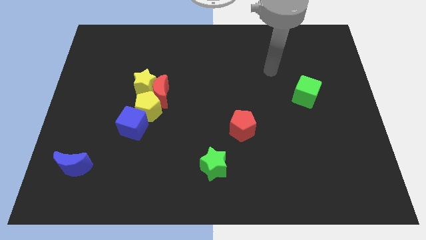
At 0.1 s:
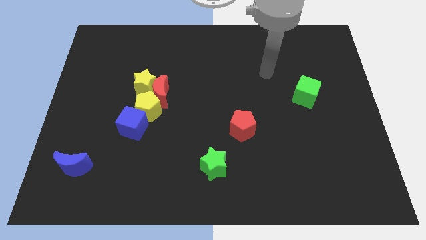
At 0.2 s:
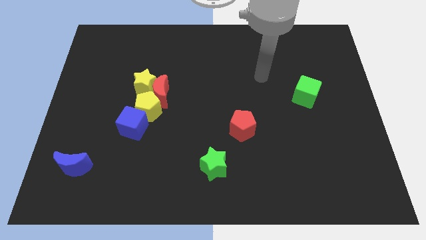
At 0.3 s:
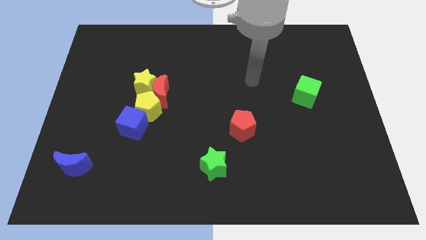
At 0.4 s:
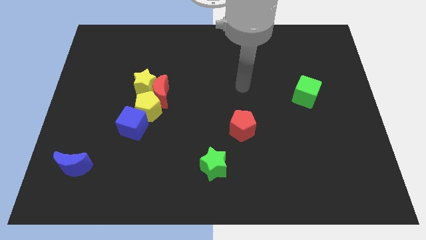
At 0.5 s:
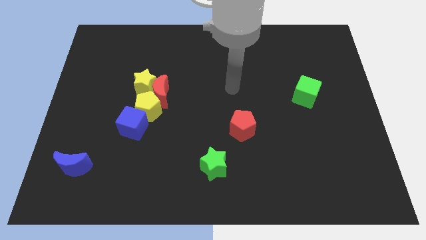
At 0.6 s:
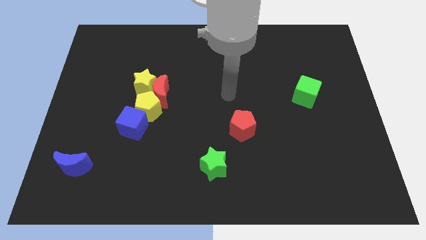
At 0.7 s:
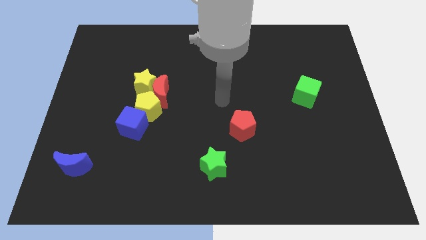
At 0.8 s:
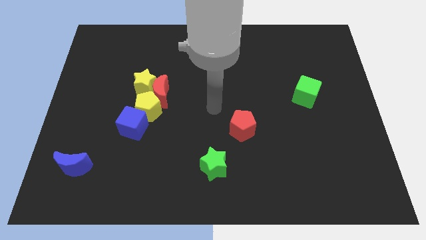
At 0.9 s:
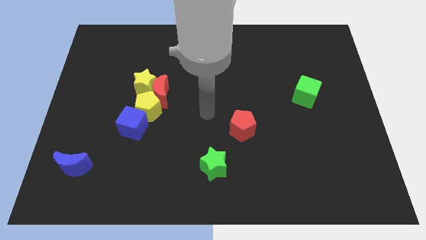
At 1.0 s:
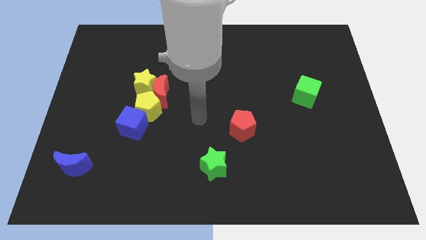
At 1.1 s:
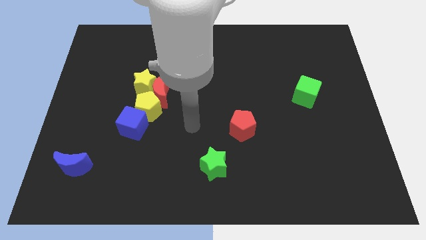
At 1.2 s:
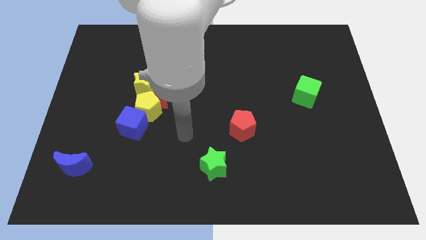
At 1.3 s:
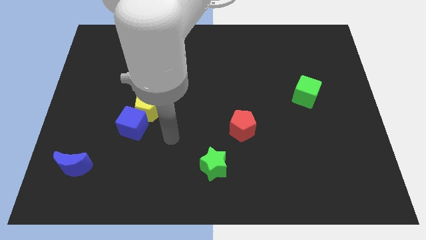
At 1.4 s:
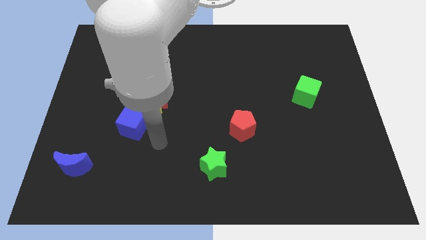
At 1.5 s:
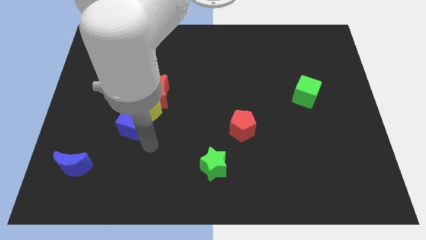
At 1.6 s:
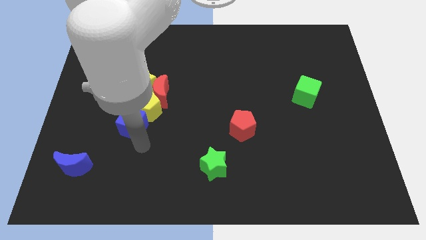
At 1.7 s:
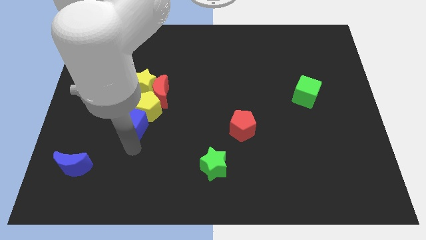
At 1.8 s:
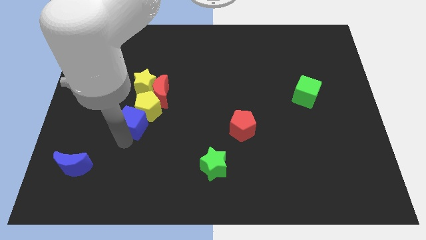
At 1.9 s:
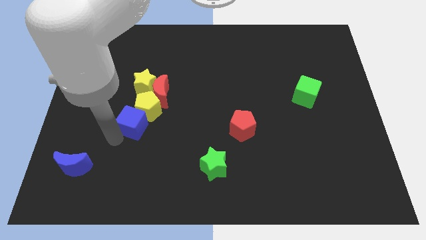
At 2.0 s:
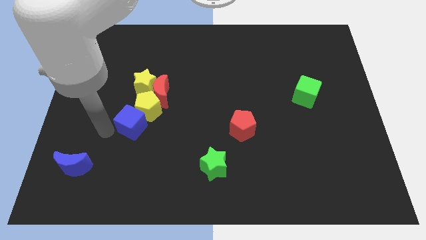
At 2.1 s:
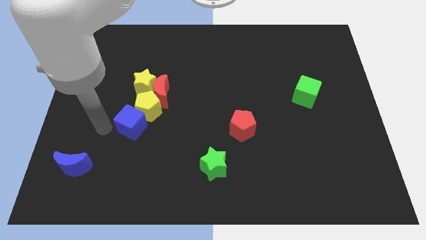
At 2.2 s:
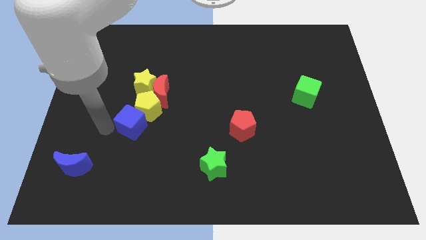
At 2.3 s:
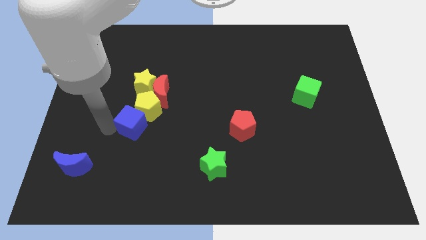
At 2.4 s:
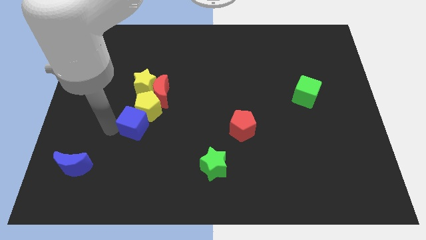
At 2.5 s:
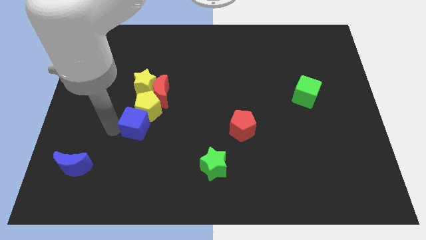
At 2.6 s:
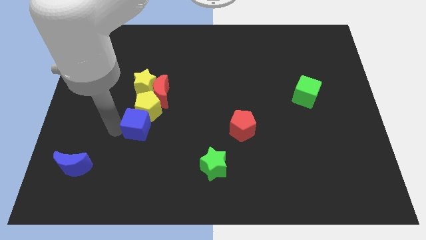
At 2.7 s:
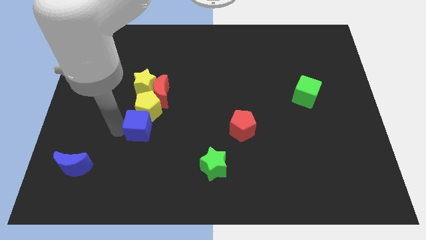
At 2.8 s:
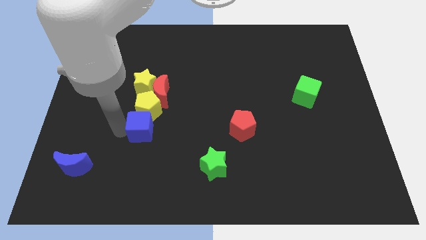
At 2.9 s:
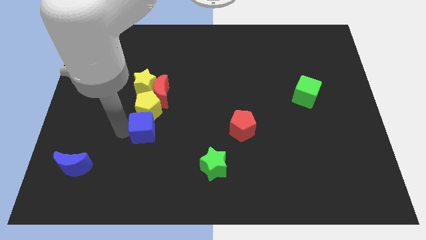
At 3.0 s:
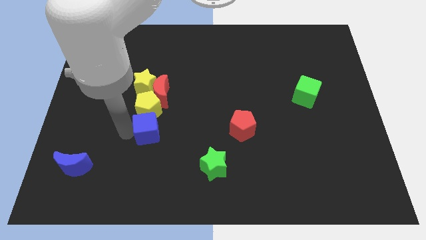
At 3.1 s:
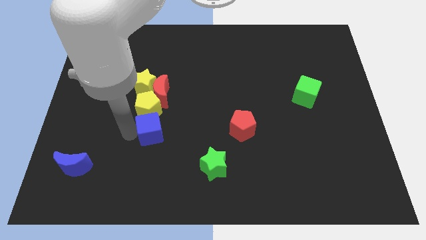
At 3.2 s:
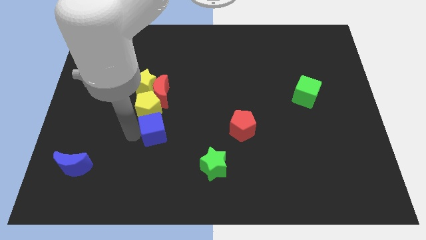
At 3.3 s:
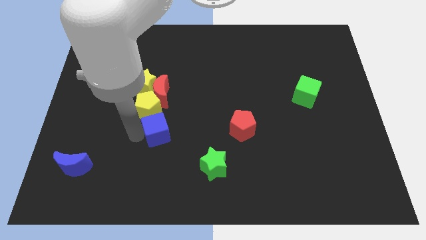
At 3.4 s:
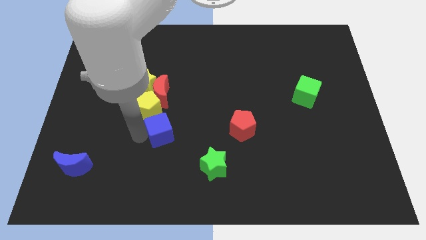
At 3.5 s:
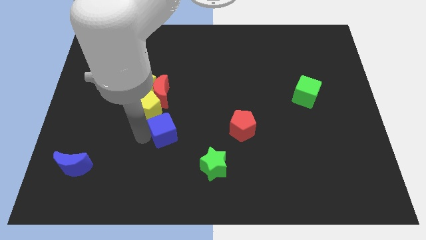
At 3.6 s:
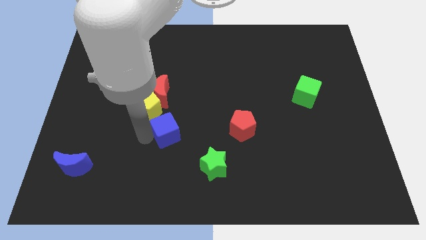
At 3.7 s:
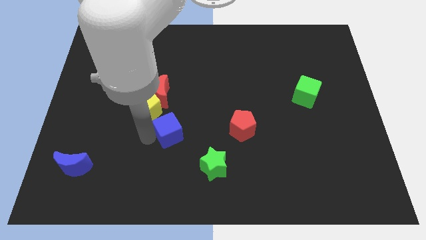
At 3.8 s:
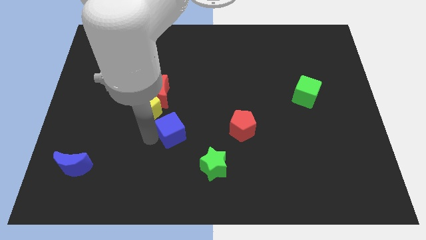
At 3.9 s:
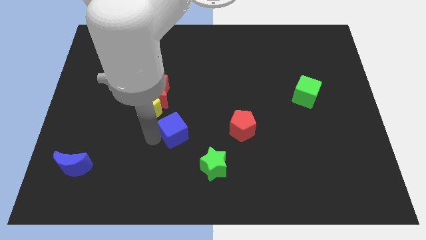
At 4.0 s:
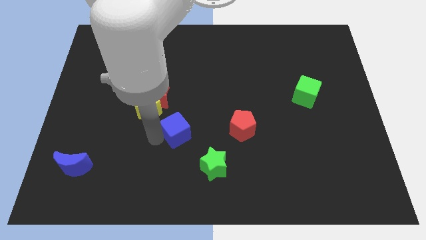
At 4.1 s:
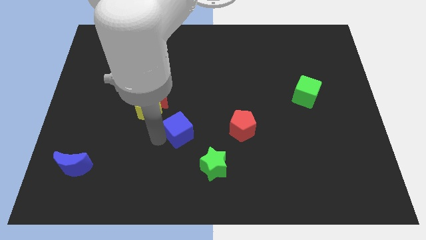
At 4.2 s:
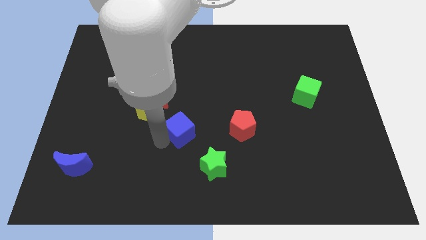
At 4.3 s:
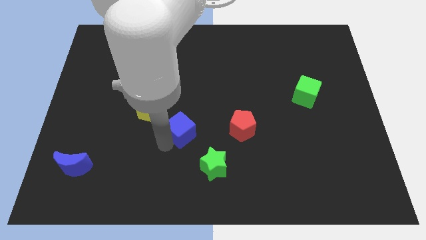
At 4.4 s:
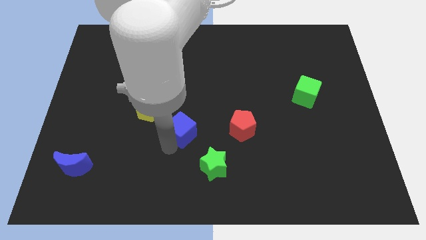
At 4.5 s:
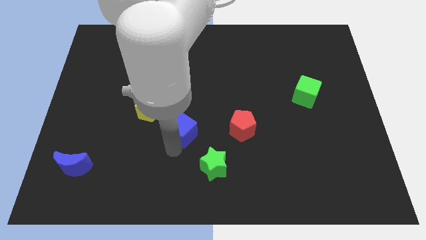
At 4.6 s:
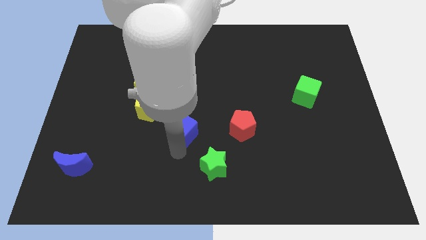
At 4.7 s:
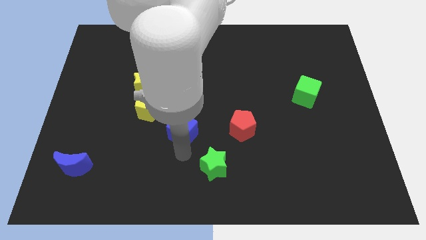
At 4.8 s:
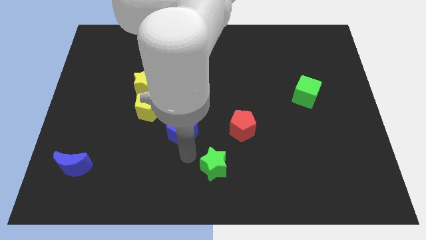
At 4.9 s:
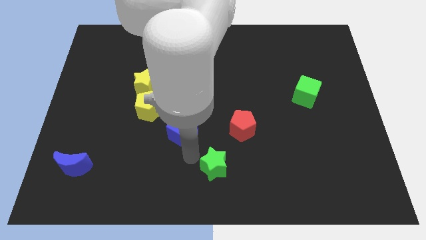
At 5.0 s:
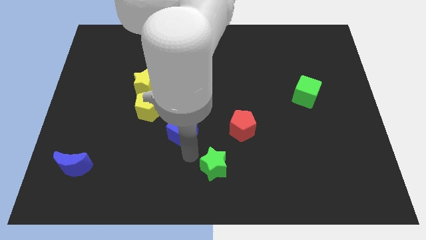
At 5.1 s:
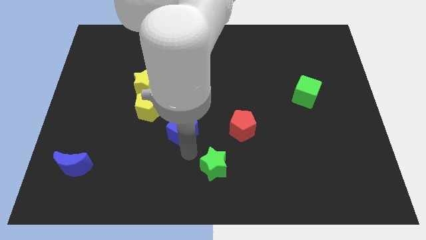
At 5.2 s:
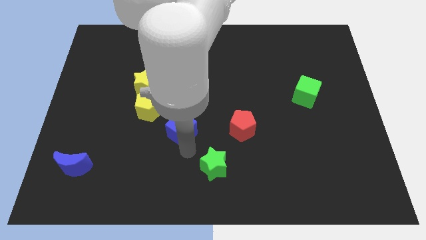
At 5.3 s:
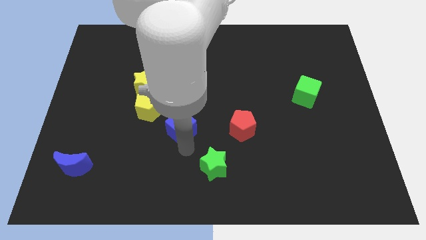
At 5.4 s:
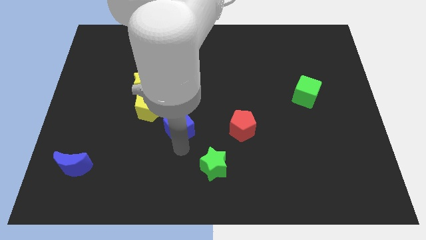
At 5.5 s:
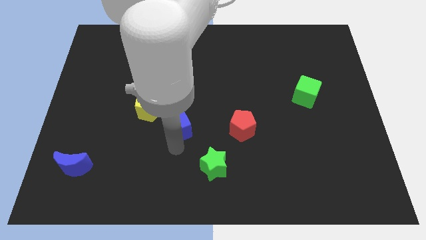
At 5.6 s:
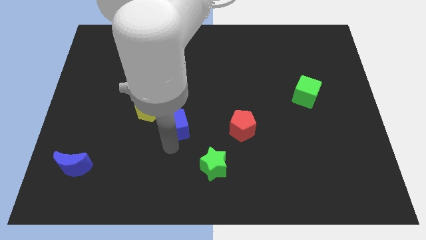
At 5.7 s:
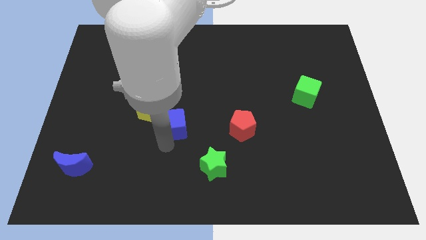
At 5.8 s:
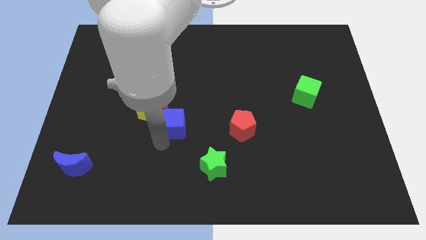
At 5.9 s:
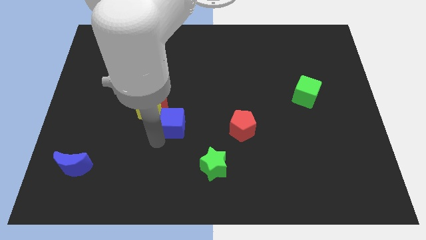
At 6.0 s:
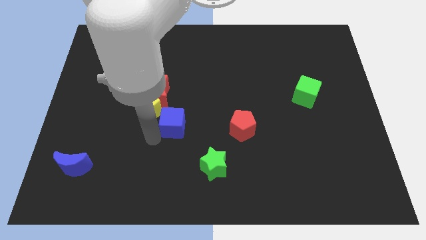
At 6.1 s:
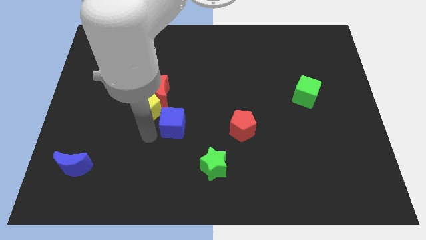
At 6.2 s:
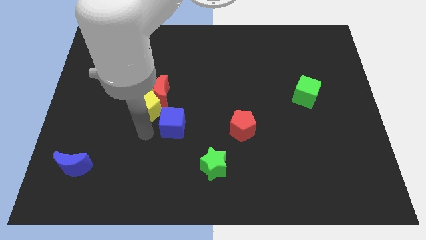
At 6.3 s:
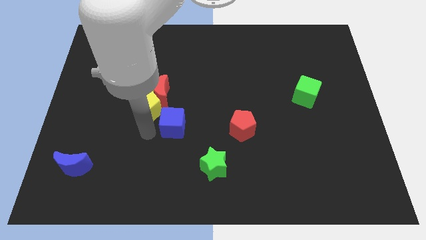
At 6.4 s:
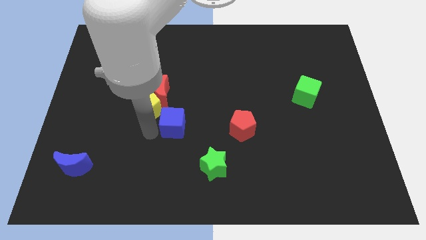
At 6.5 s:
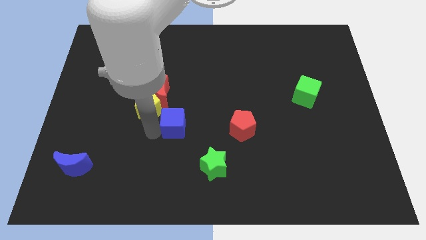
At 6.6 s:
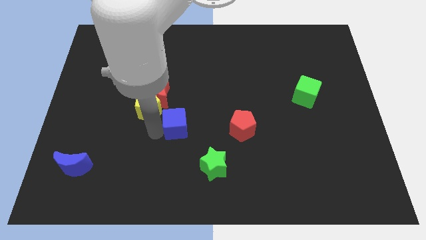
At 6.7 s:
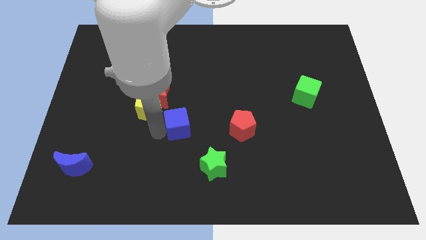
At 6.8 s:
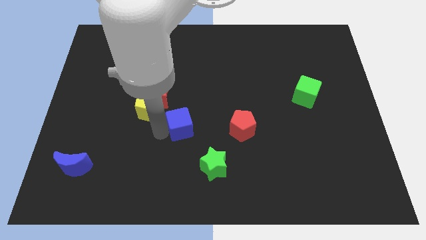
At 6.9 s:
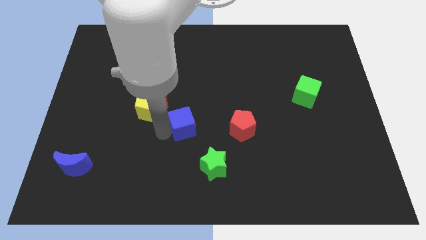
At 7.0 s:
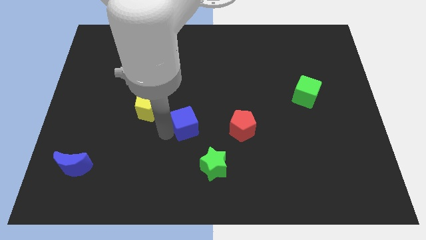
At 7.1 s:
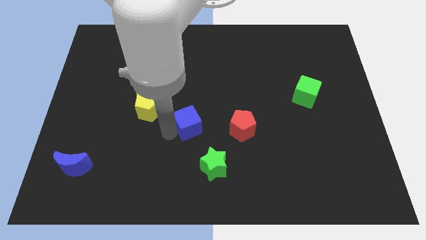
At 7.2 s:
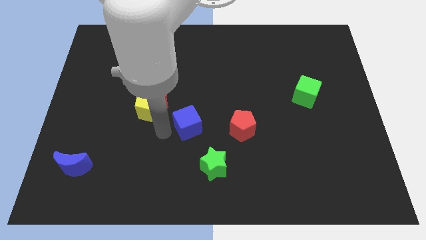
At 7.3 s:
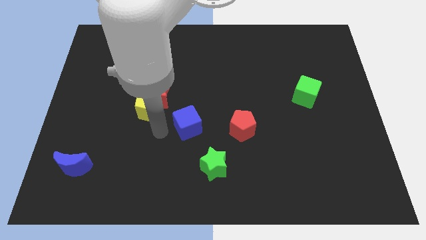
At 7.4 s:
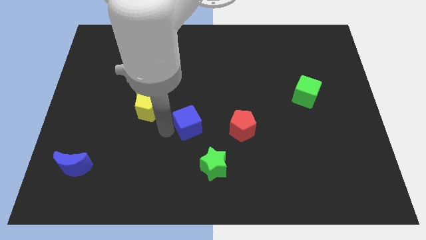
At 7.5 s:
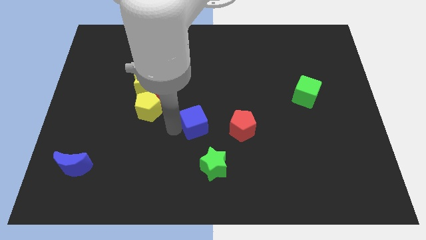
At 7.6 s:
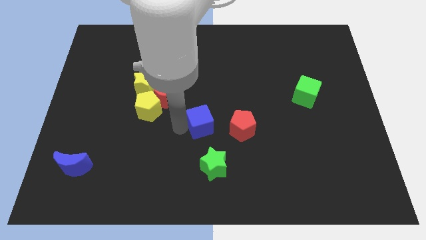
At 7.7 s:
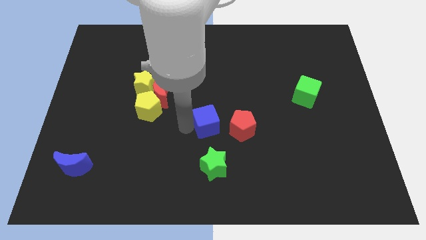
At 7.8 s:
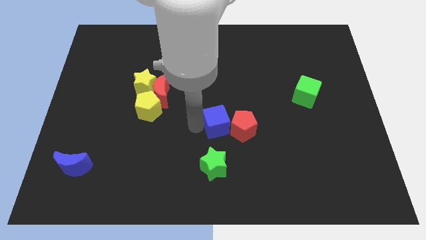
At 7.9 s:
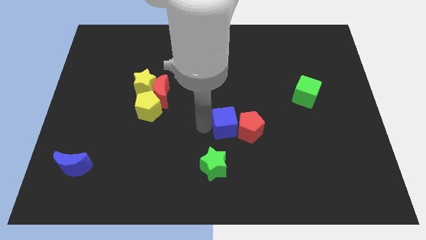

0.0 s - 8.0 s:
slide the blue cube to the right
